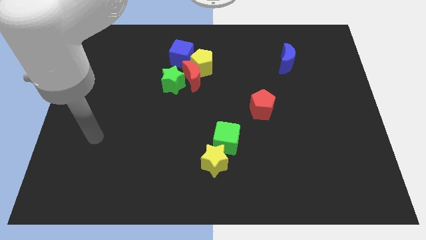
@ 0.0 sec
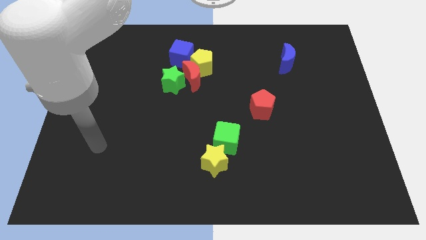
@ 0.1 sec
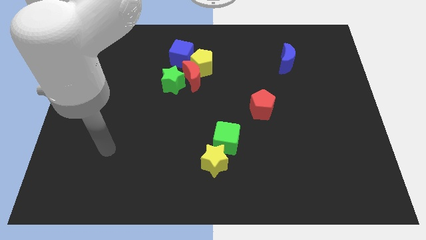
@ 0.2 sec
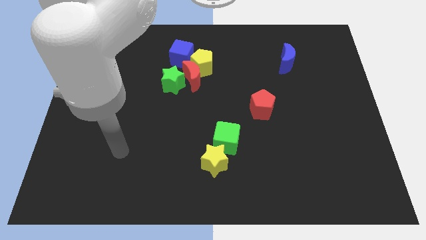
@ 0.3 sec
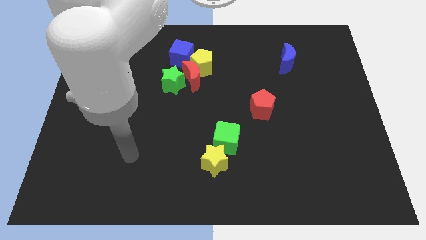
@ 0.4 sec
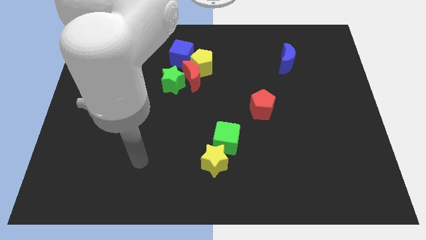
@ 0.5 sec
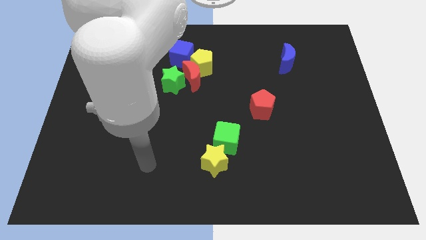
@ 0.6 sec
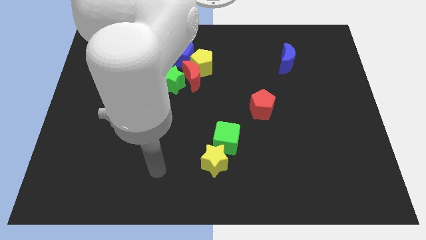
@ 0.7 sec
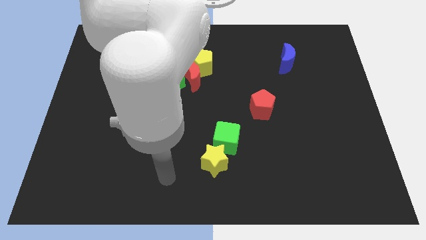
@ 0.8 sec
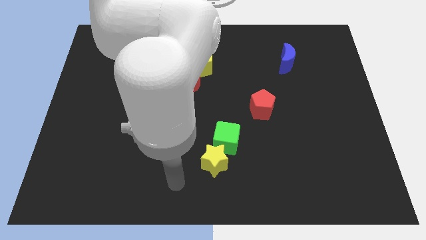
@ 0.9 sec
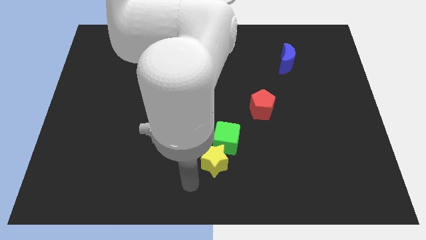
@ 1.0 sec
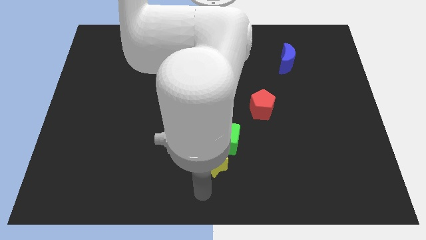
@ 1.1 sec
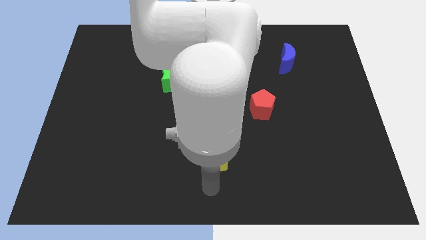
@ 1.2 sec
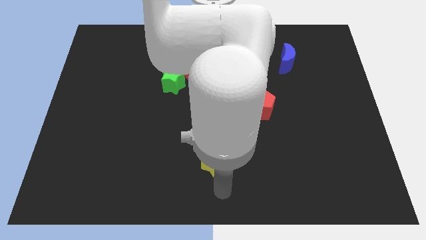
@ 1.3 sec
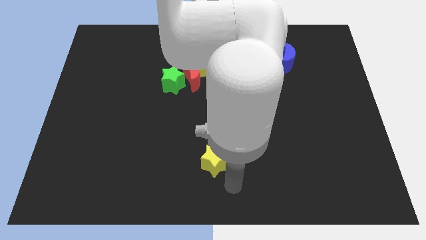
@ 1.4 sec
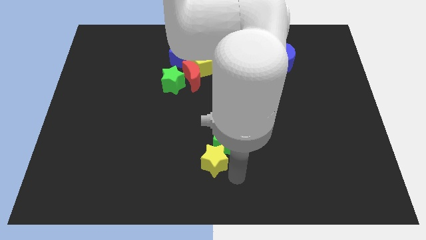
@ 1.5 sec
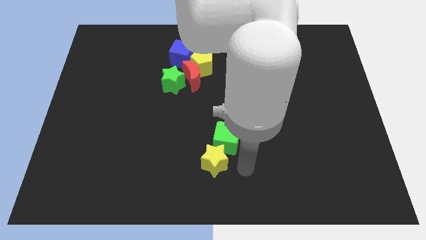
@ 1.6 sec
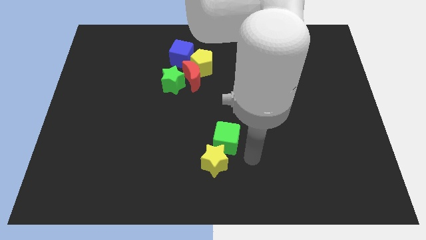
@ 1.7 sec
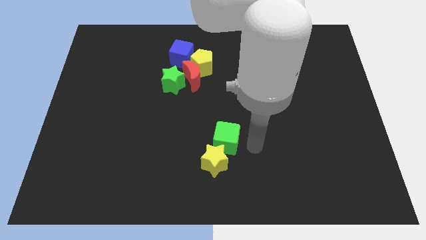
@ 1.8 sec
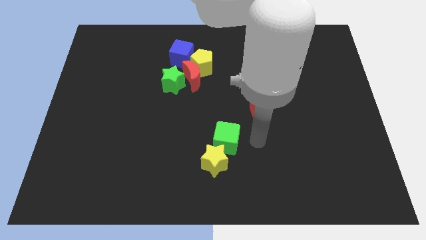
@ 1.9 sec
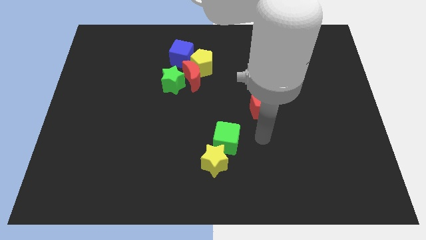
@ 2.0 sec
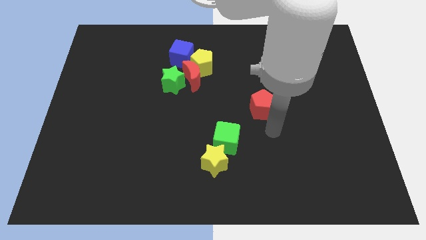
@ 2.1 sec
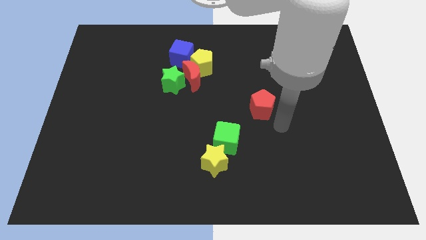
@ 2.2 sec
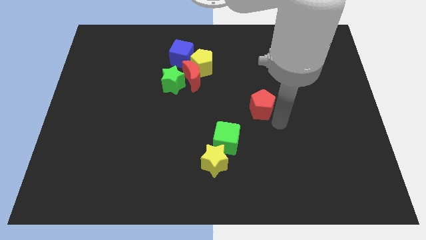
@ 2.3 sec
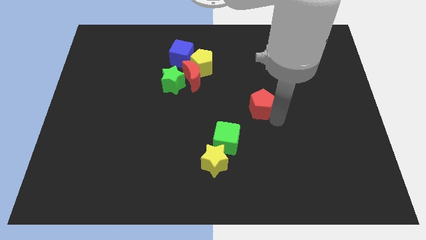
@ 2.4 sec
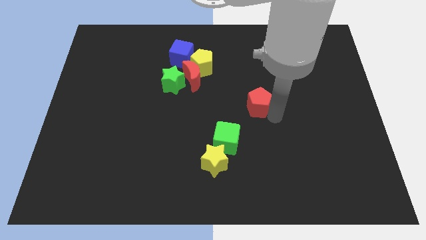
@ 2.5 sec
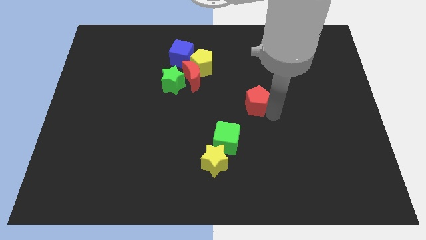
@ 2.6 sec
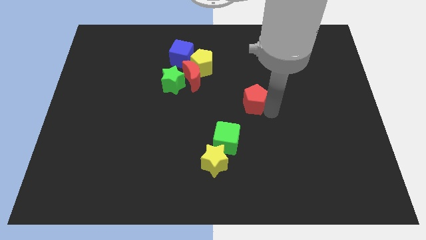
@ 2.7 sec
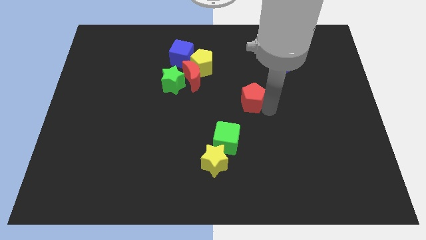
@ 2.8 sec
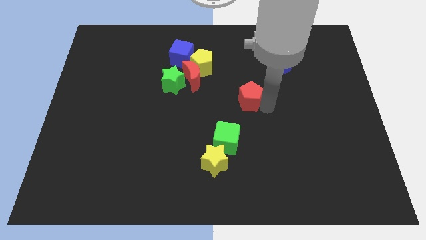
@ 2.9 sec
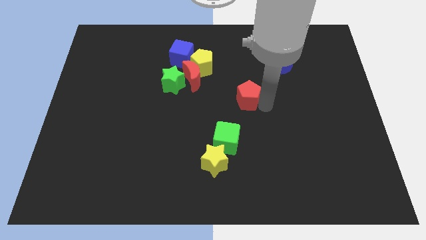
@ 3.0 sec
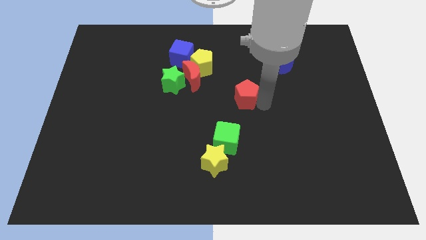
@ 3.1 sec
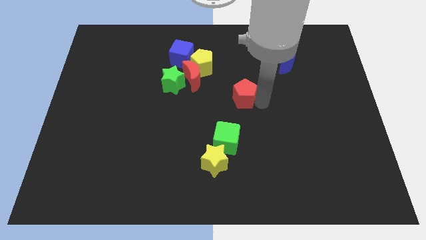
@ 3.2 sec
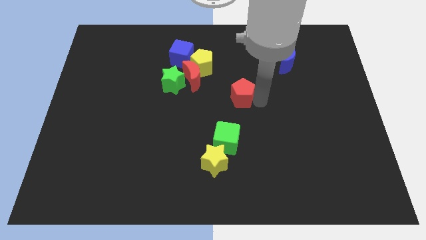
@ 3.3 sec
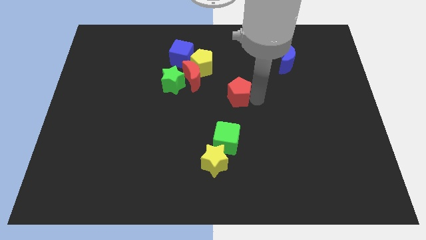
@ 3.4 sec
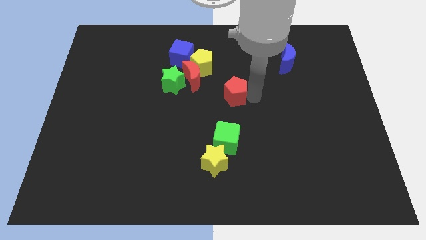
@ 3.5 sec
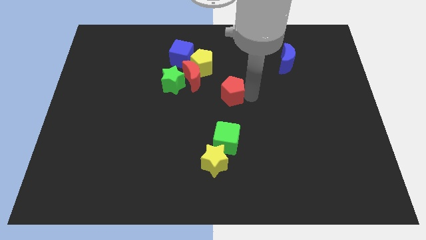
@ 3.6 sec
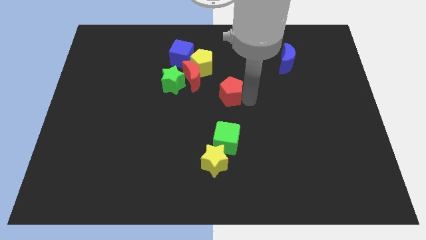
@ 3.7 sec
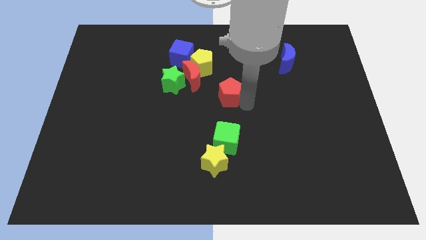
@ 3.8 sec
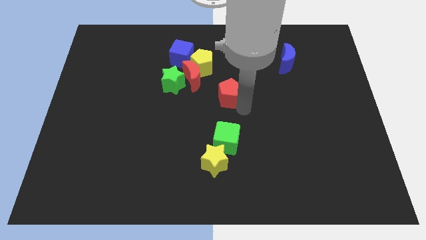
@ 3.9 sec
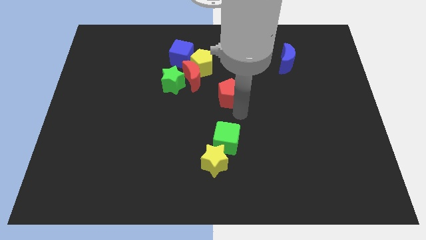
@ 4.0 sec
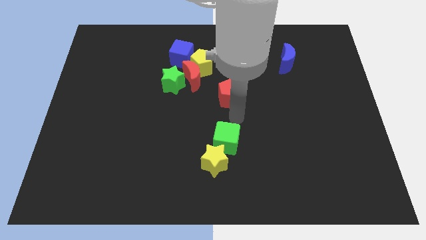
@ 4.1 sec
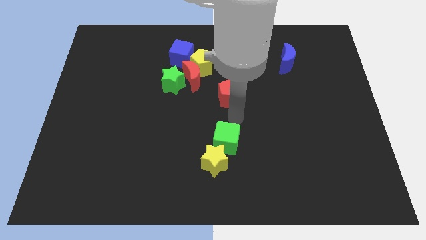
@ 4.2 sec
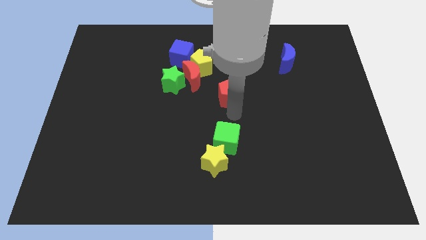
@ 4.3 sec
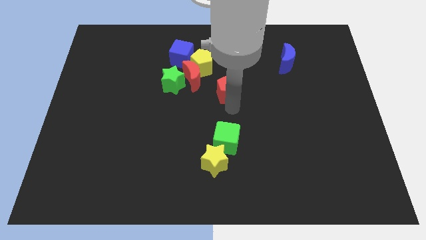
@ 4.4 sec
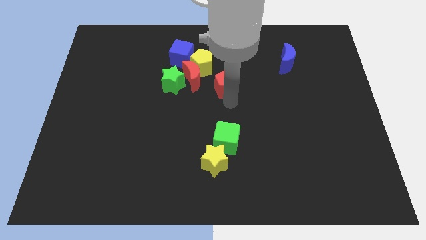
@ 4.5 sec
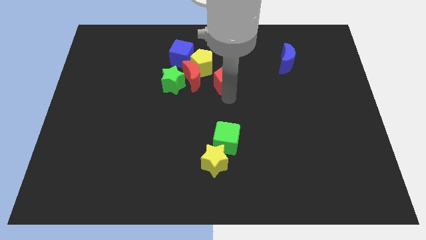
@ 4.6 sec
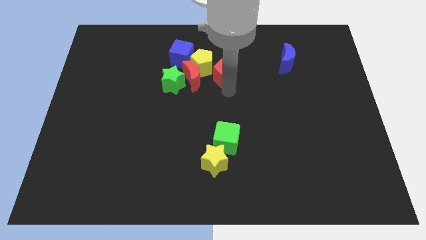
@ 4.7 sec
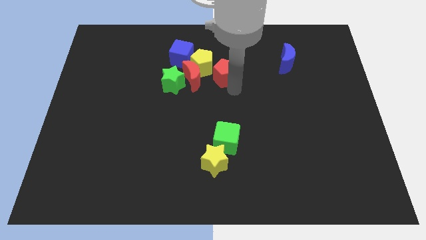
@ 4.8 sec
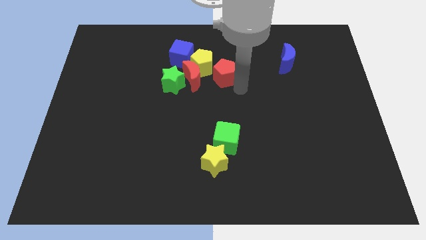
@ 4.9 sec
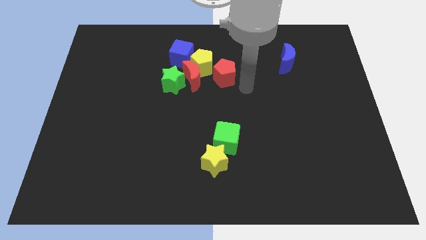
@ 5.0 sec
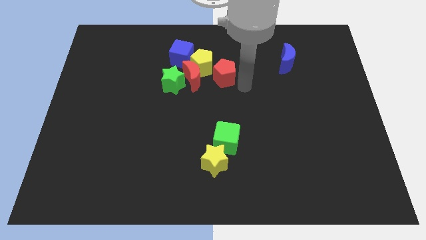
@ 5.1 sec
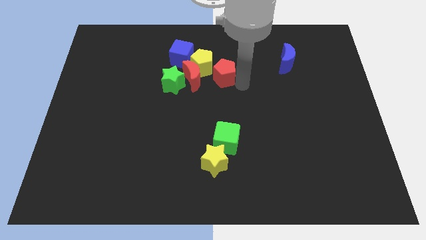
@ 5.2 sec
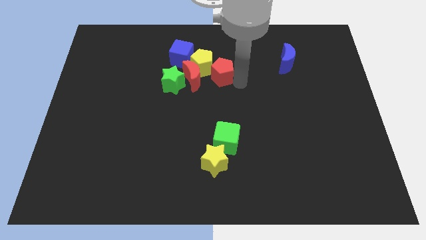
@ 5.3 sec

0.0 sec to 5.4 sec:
slide the red pentagon to the yellow pentagon

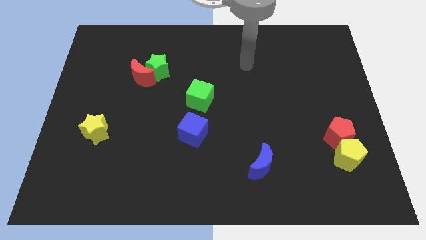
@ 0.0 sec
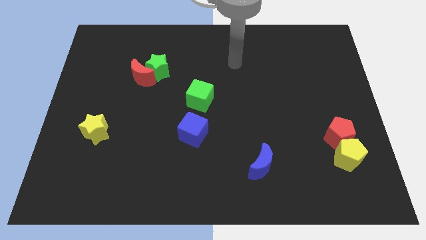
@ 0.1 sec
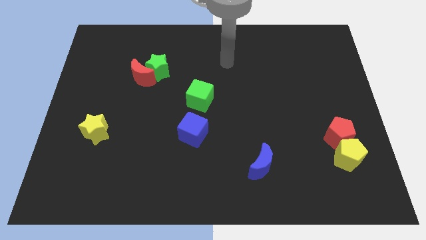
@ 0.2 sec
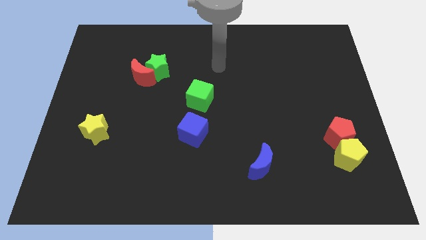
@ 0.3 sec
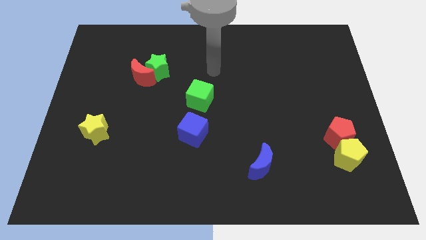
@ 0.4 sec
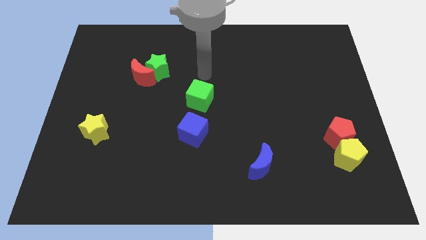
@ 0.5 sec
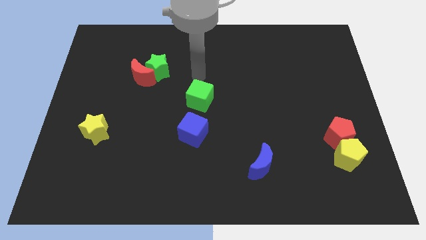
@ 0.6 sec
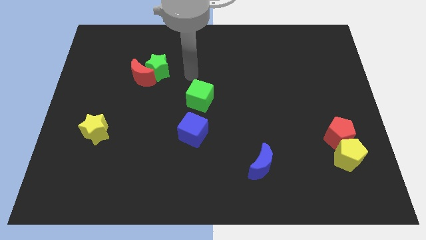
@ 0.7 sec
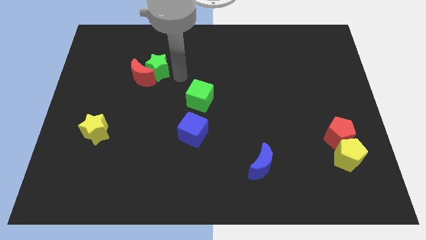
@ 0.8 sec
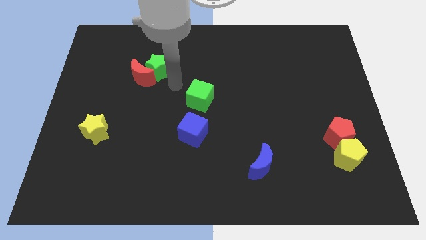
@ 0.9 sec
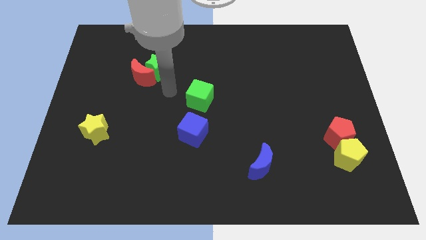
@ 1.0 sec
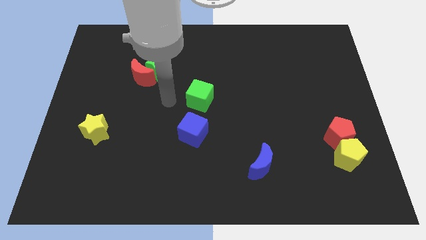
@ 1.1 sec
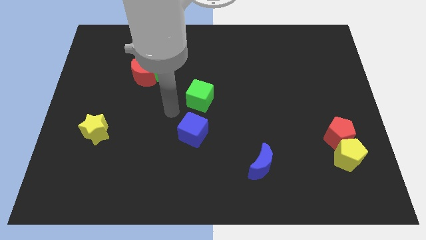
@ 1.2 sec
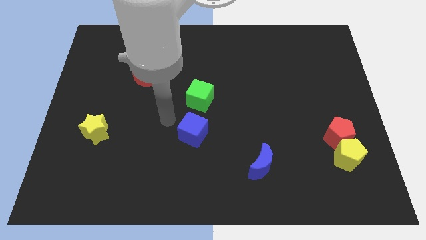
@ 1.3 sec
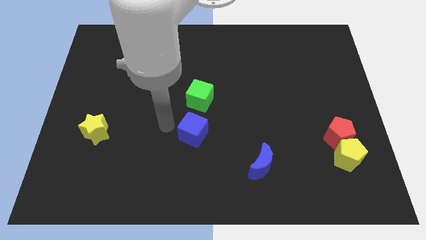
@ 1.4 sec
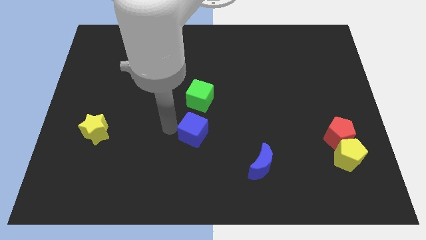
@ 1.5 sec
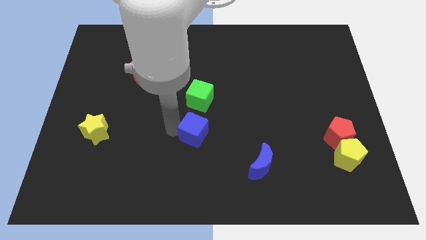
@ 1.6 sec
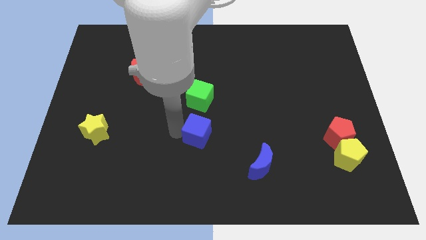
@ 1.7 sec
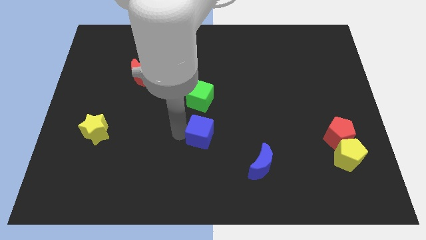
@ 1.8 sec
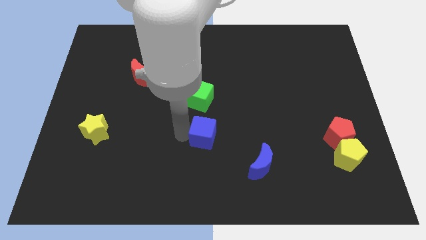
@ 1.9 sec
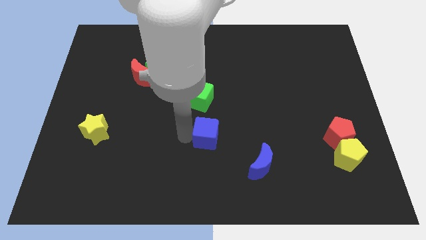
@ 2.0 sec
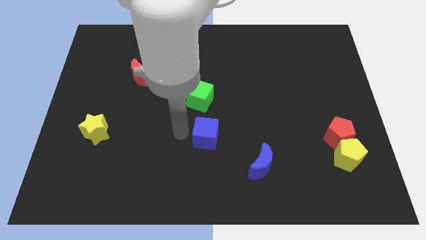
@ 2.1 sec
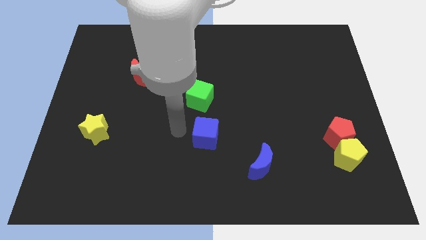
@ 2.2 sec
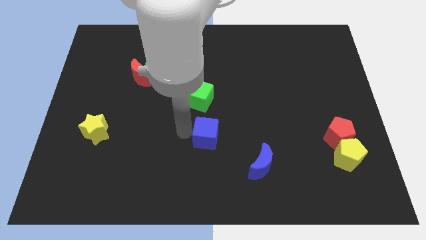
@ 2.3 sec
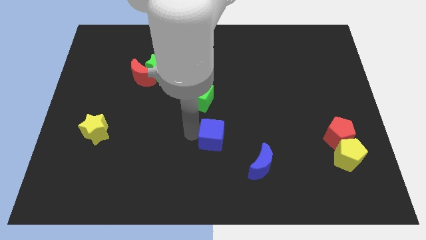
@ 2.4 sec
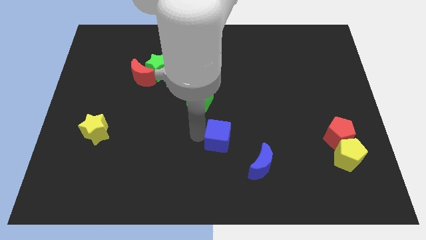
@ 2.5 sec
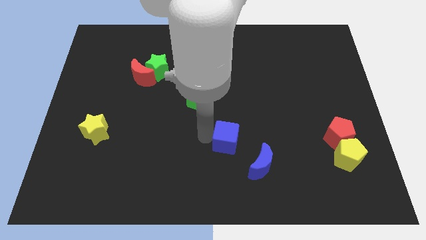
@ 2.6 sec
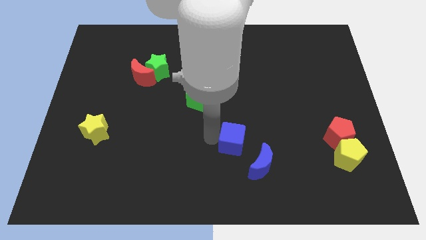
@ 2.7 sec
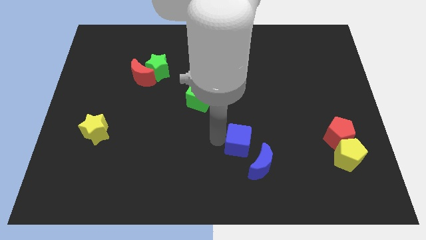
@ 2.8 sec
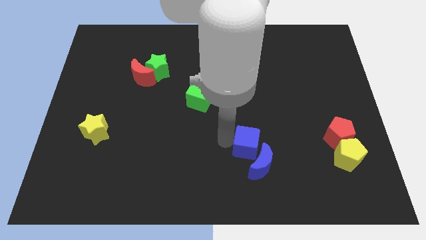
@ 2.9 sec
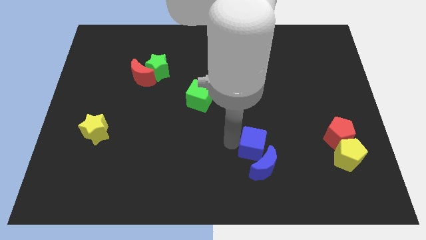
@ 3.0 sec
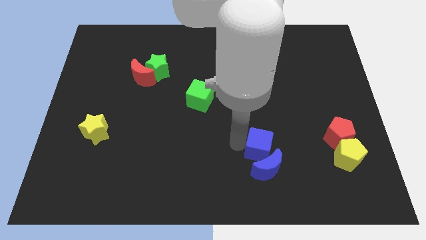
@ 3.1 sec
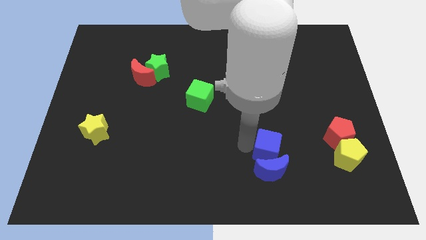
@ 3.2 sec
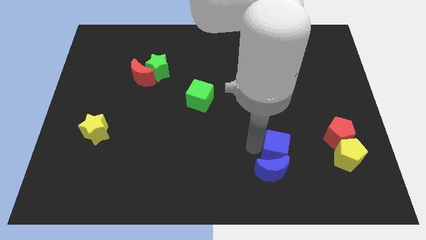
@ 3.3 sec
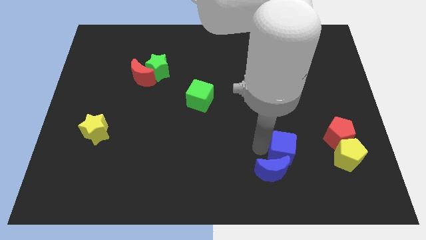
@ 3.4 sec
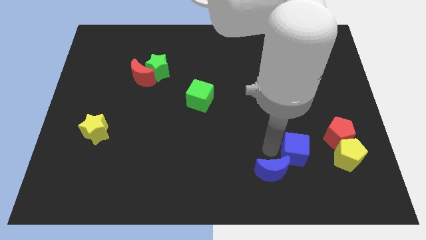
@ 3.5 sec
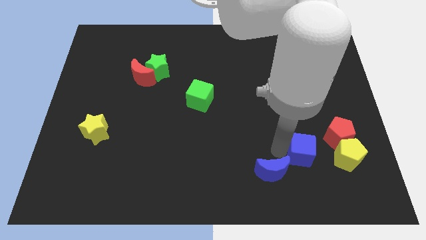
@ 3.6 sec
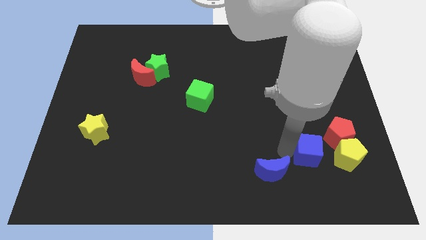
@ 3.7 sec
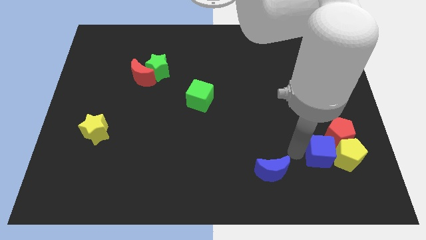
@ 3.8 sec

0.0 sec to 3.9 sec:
move the blue cube close to the yellow pentagon
